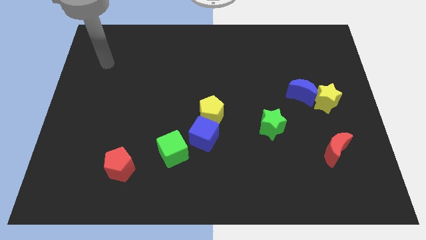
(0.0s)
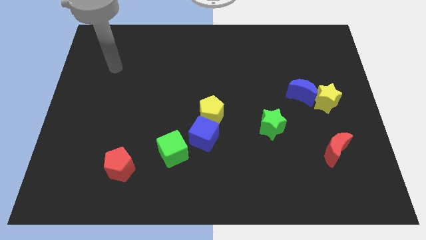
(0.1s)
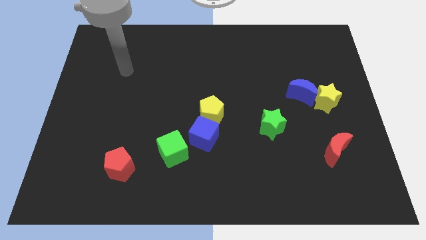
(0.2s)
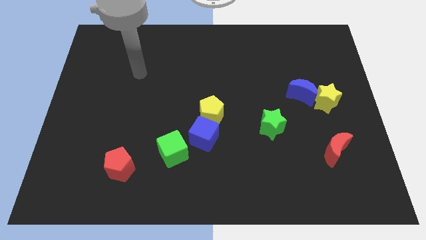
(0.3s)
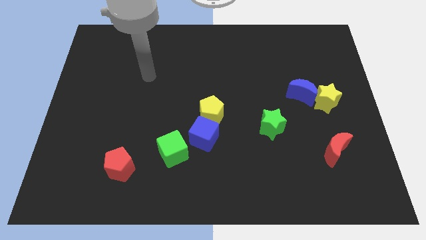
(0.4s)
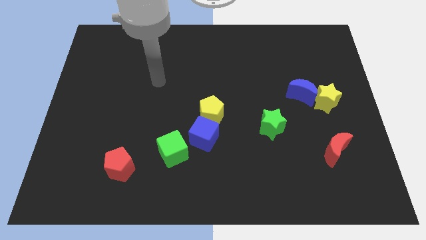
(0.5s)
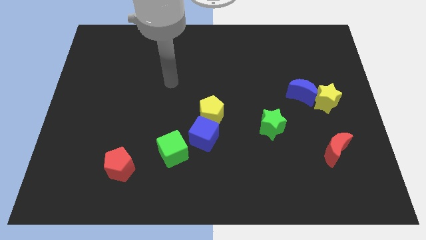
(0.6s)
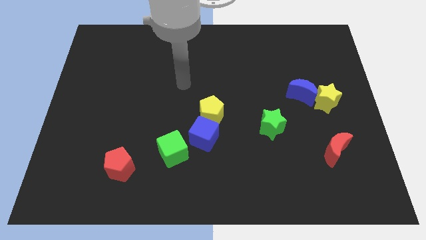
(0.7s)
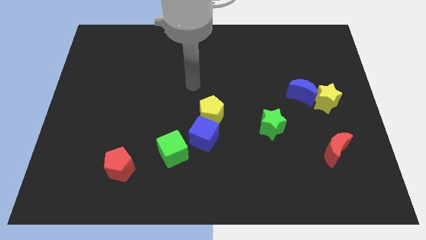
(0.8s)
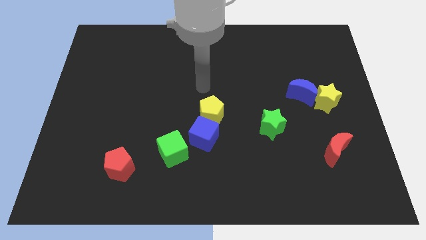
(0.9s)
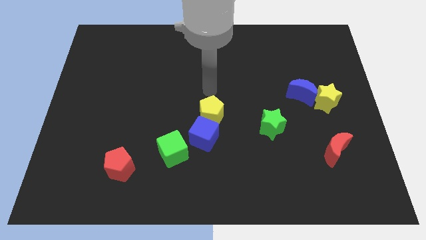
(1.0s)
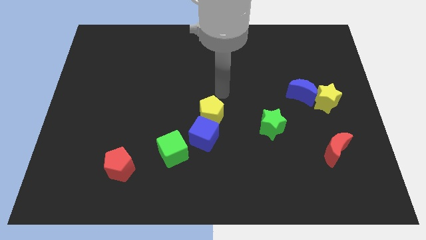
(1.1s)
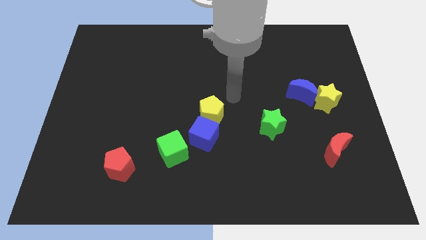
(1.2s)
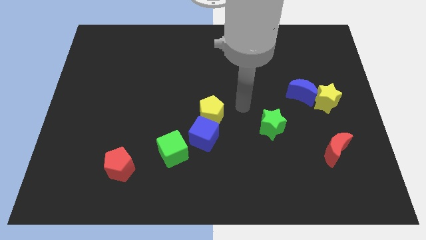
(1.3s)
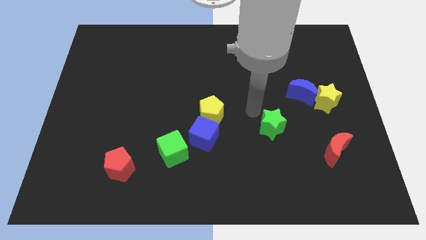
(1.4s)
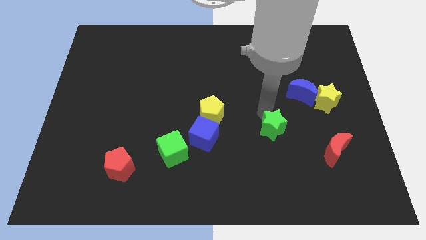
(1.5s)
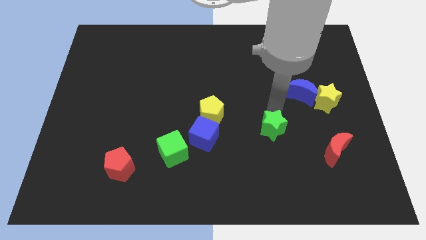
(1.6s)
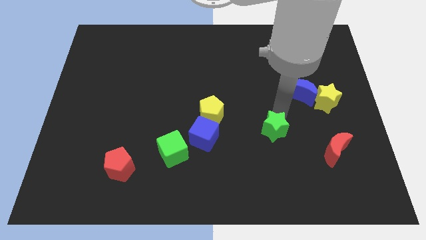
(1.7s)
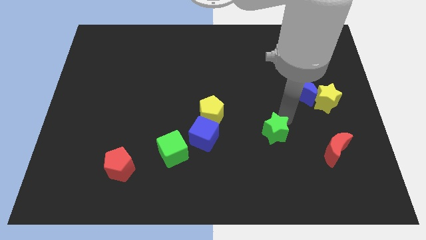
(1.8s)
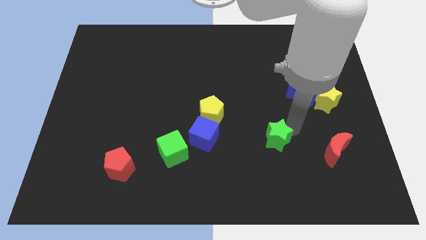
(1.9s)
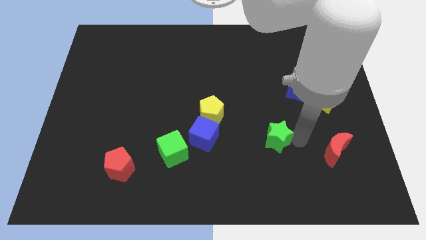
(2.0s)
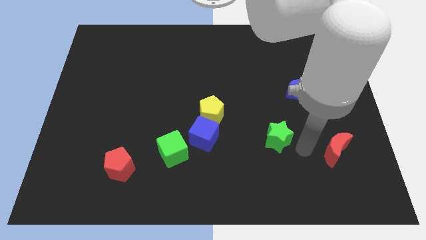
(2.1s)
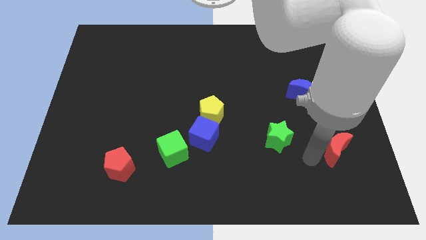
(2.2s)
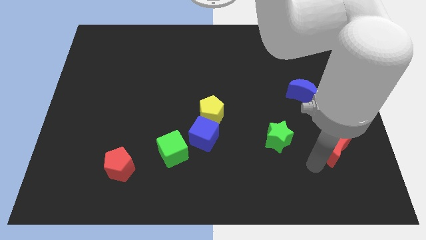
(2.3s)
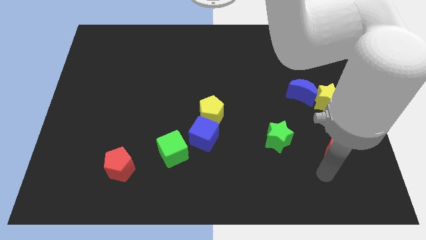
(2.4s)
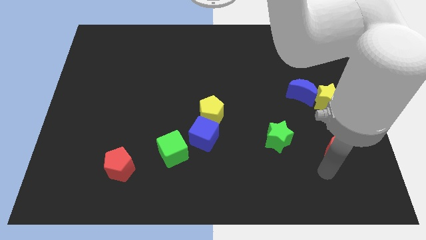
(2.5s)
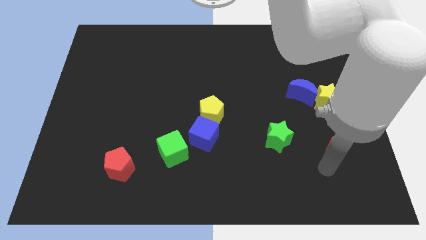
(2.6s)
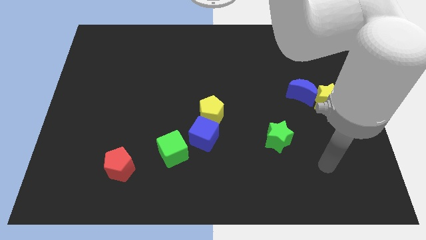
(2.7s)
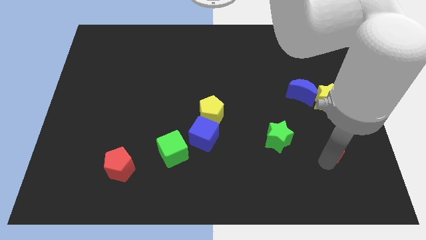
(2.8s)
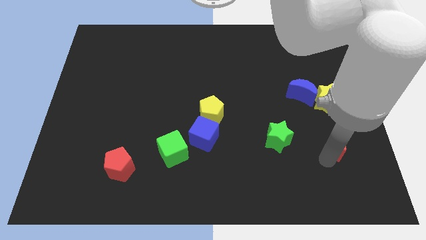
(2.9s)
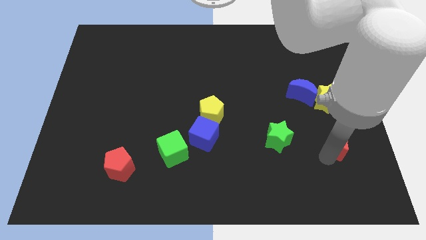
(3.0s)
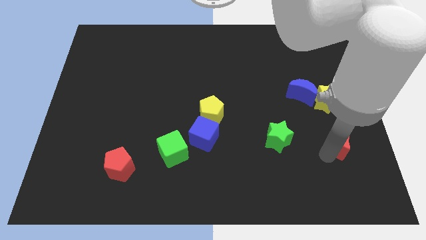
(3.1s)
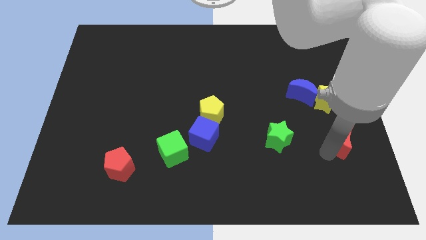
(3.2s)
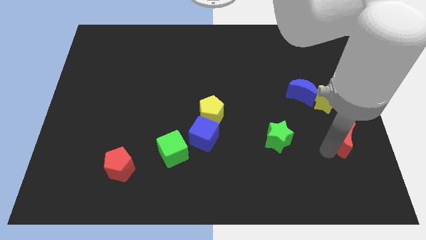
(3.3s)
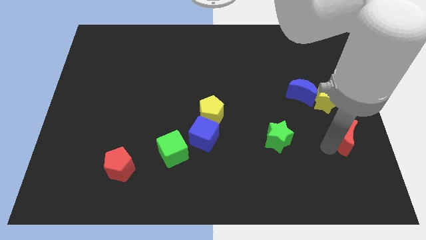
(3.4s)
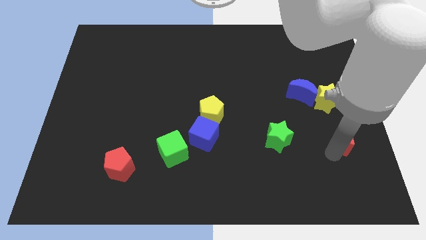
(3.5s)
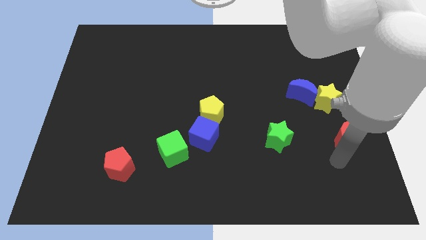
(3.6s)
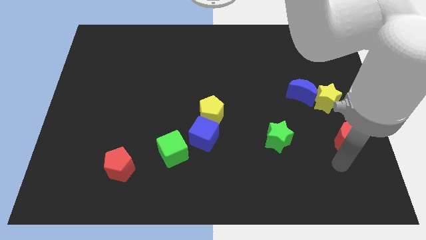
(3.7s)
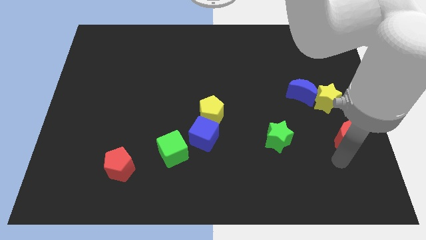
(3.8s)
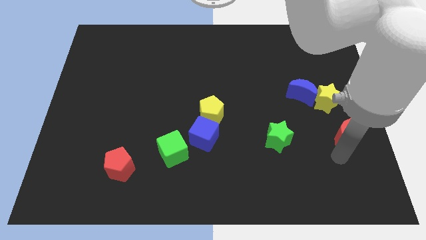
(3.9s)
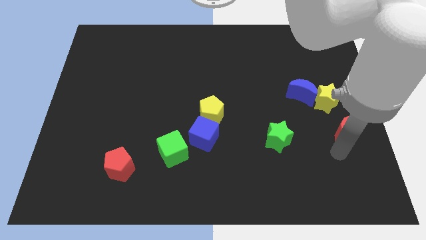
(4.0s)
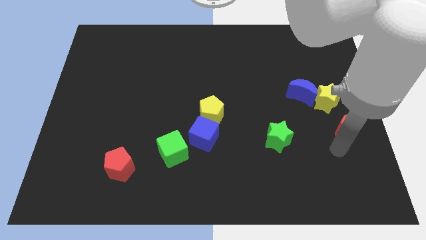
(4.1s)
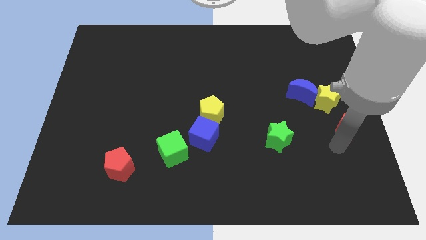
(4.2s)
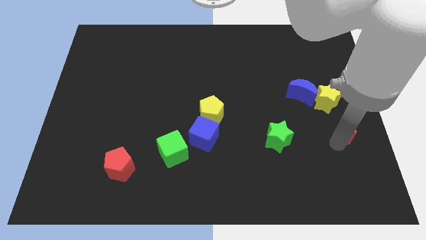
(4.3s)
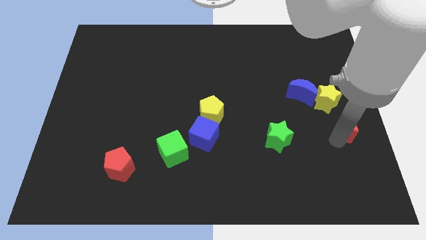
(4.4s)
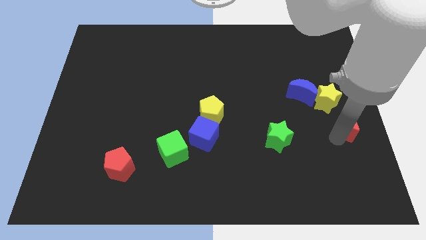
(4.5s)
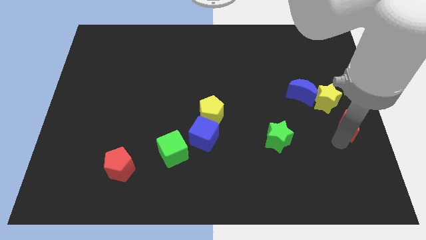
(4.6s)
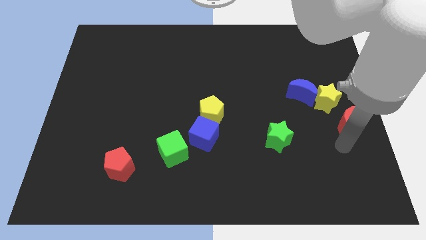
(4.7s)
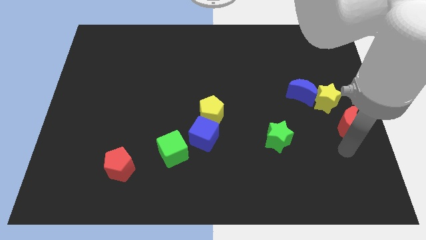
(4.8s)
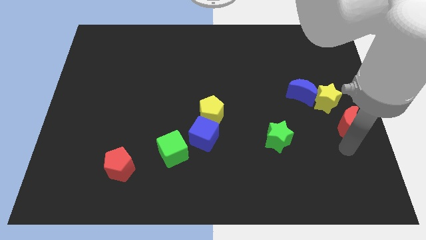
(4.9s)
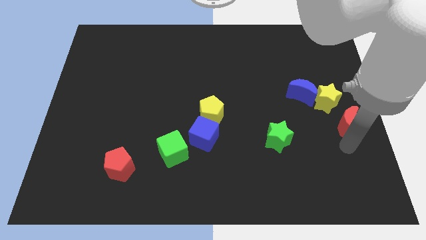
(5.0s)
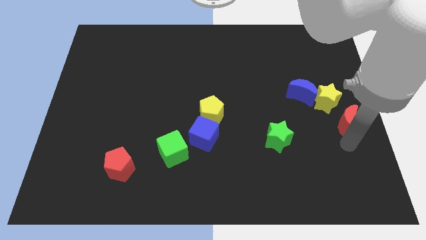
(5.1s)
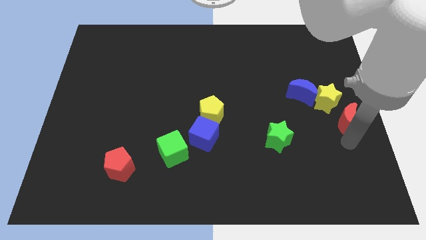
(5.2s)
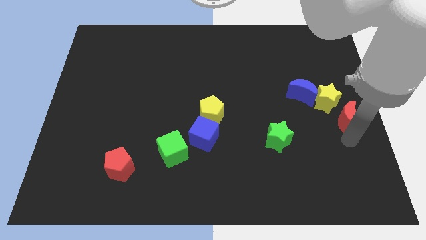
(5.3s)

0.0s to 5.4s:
move the red moon upwards somewhat

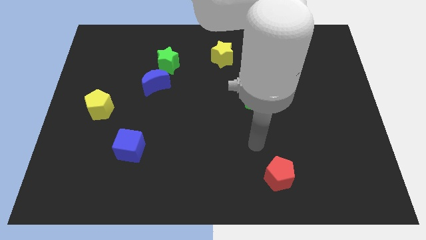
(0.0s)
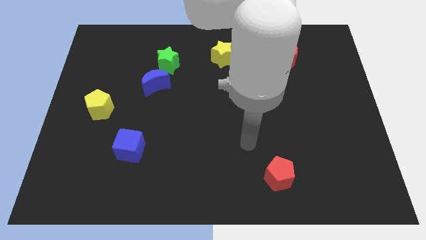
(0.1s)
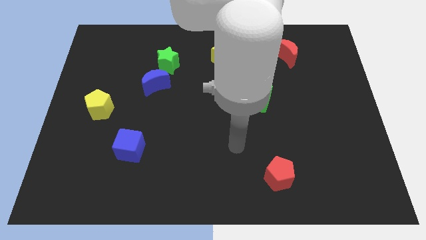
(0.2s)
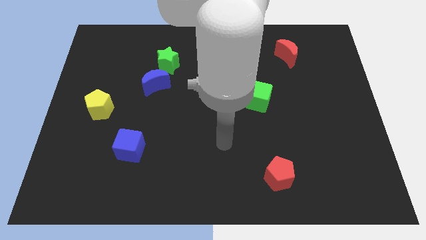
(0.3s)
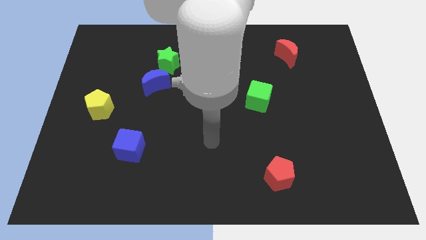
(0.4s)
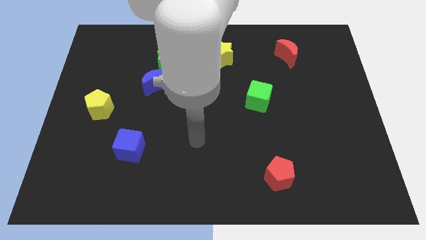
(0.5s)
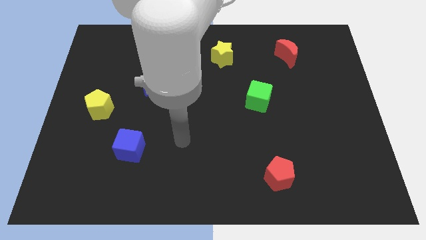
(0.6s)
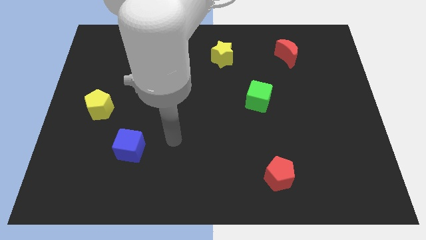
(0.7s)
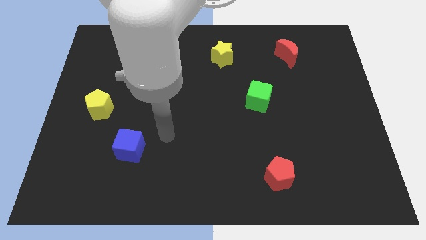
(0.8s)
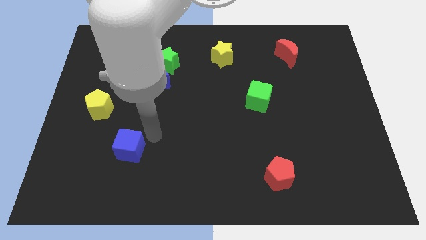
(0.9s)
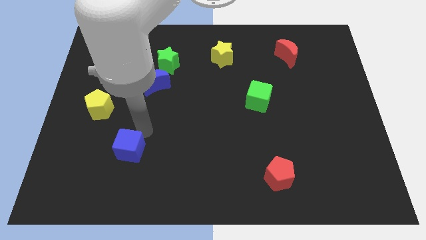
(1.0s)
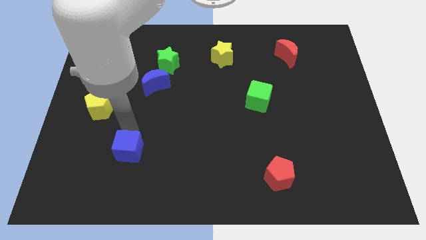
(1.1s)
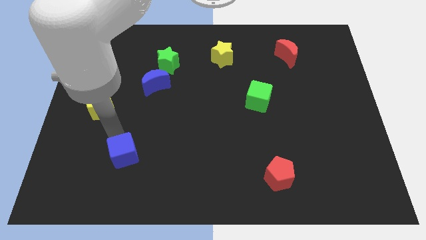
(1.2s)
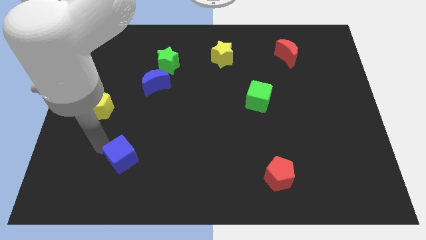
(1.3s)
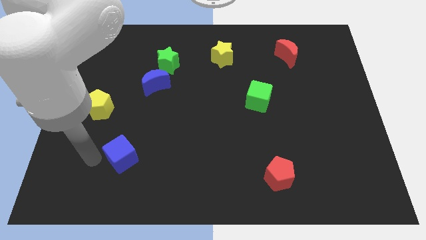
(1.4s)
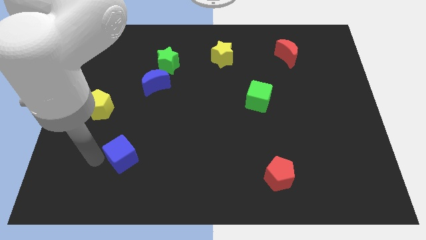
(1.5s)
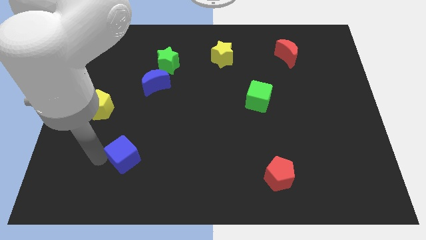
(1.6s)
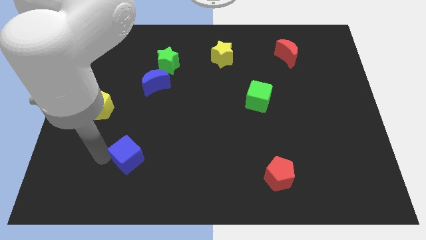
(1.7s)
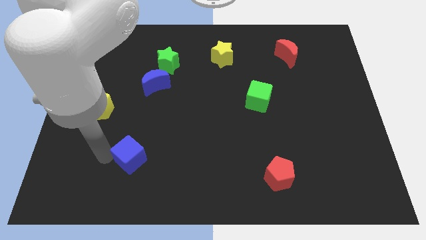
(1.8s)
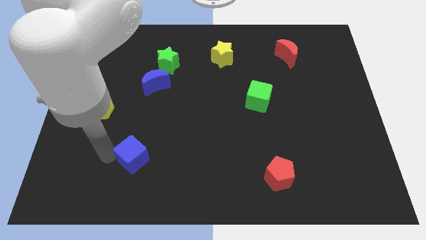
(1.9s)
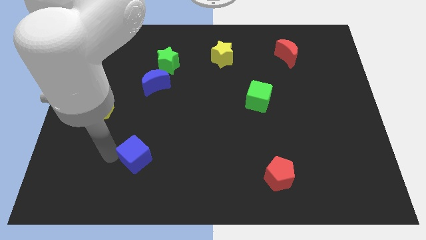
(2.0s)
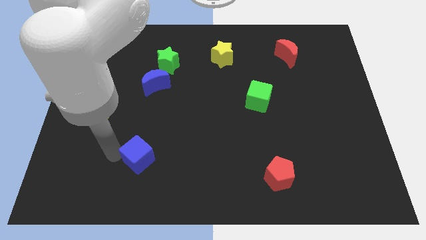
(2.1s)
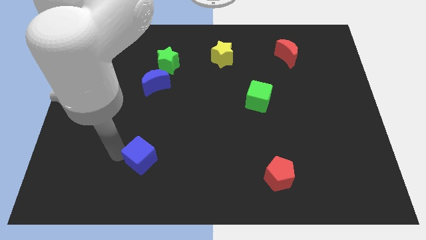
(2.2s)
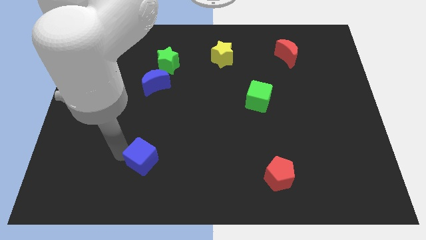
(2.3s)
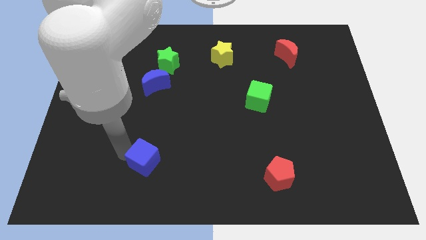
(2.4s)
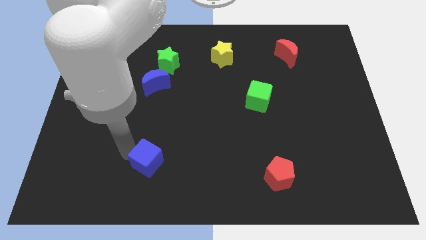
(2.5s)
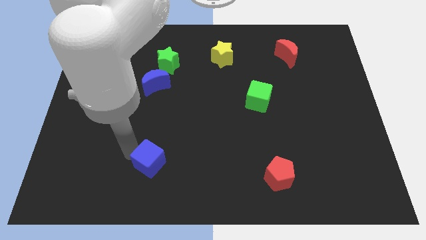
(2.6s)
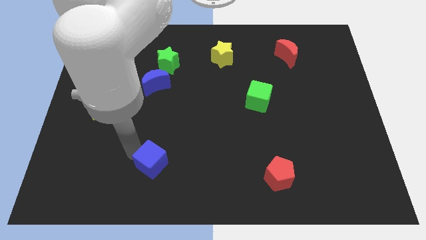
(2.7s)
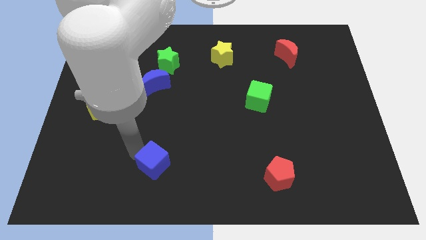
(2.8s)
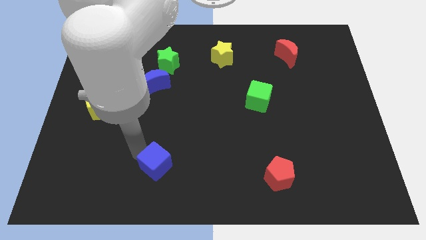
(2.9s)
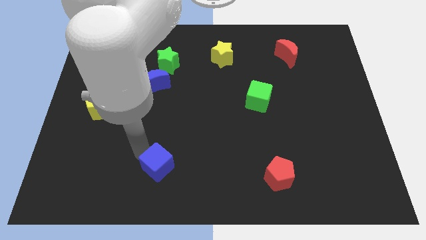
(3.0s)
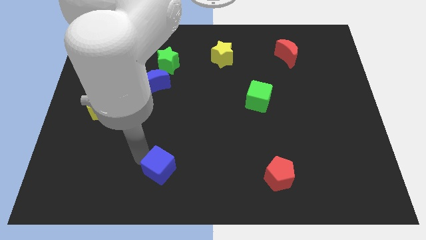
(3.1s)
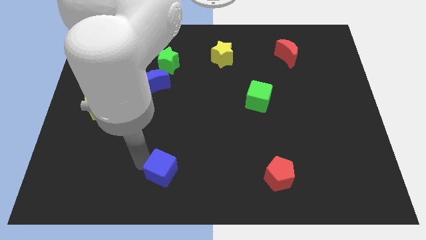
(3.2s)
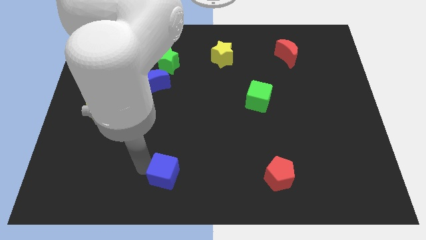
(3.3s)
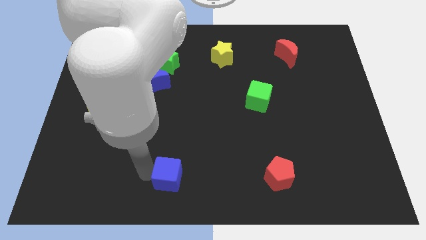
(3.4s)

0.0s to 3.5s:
slide the blue cube a little bit to the right
